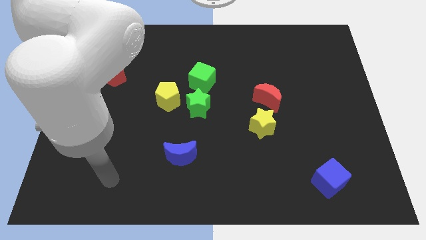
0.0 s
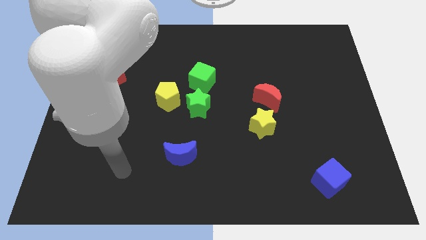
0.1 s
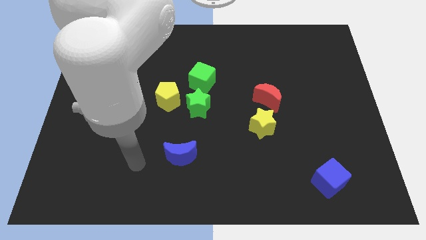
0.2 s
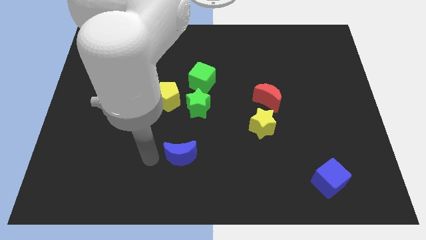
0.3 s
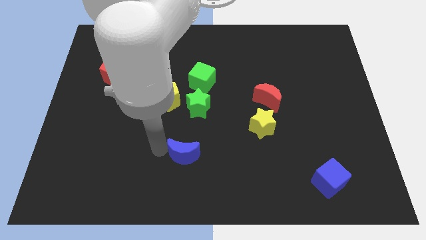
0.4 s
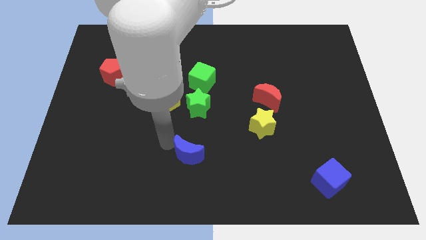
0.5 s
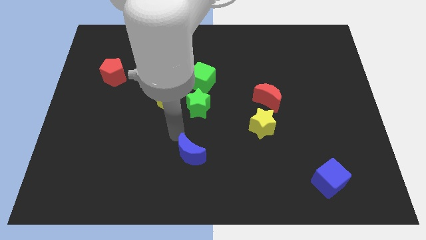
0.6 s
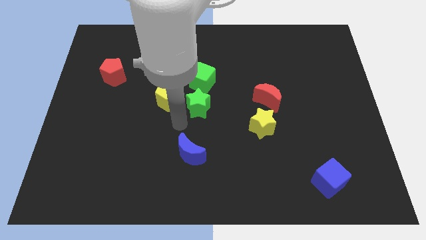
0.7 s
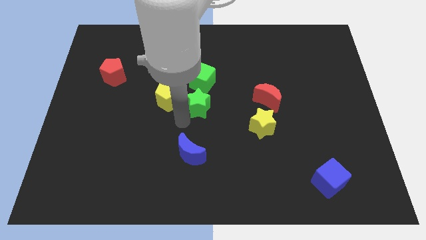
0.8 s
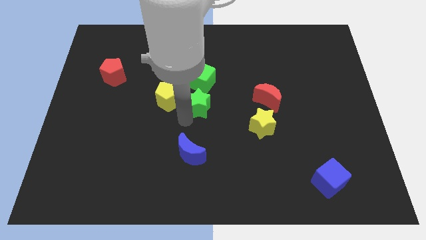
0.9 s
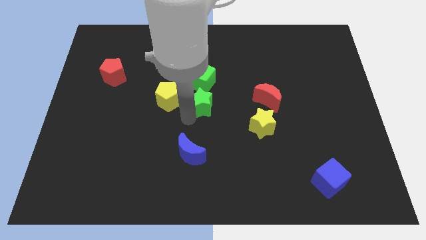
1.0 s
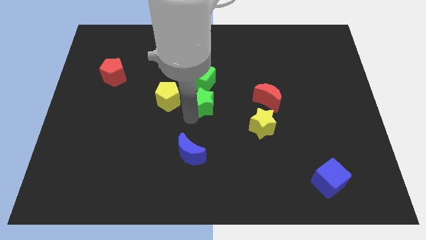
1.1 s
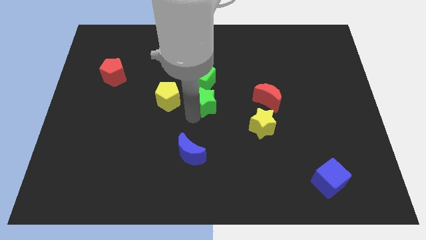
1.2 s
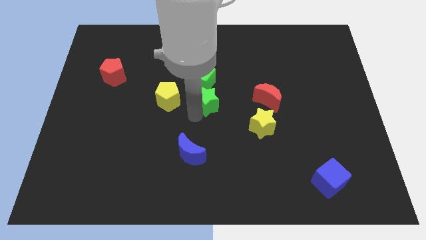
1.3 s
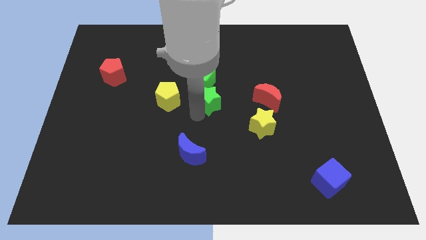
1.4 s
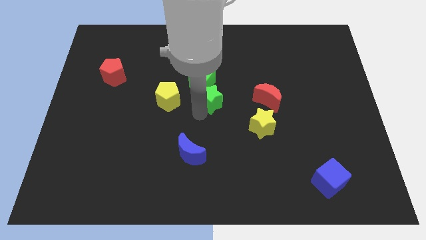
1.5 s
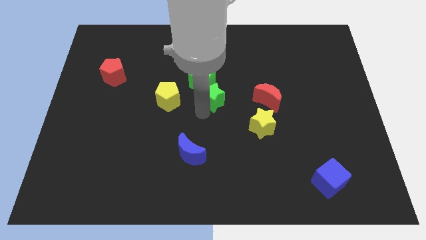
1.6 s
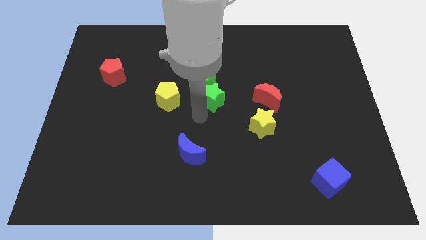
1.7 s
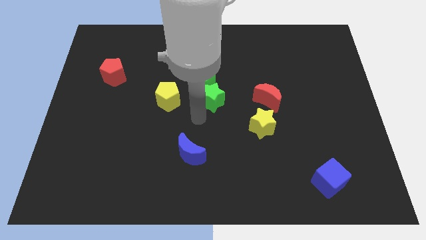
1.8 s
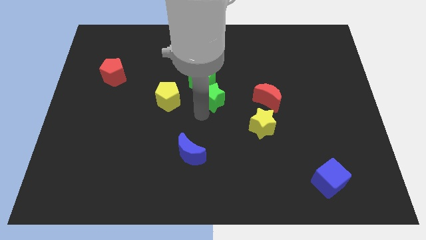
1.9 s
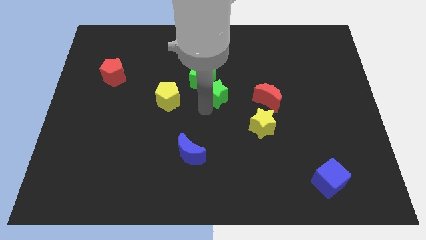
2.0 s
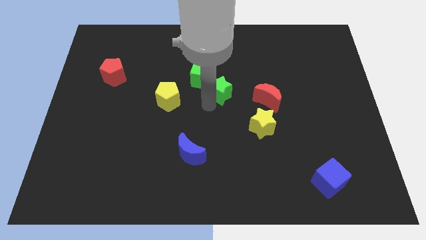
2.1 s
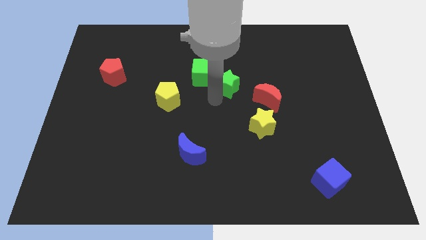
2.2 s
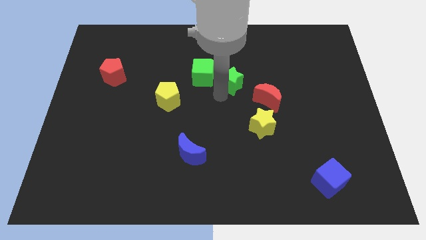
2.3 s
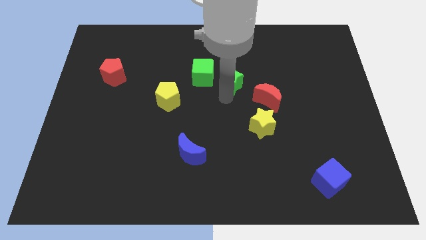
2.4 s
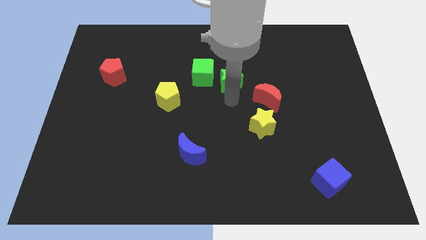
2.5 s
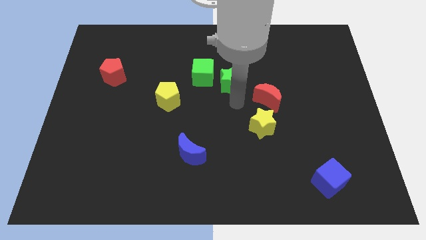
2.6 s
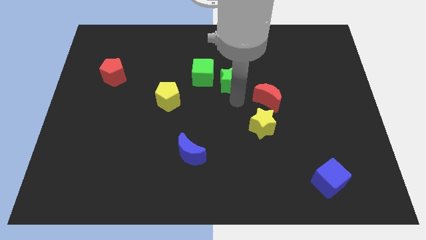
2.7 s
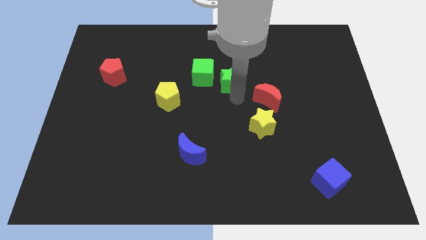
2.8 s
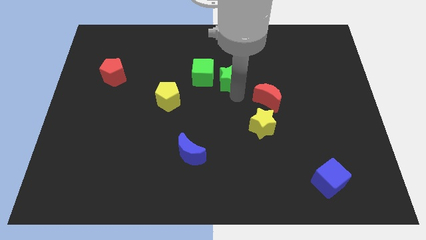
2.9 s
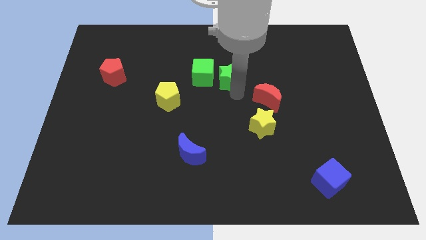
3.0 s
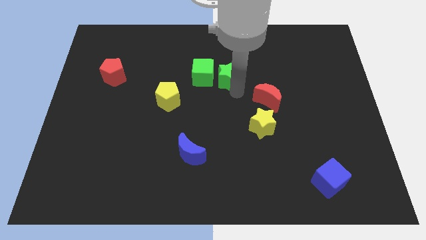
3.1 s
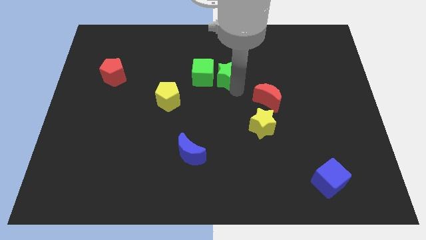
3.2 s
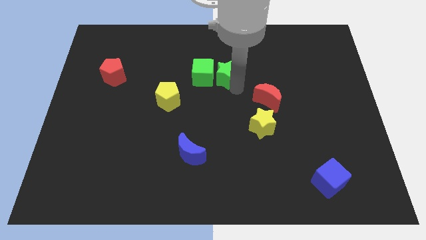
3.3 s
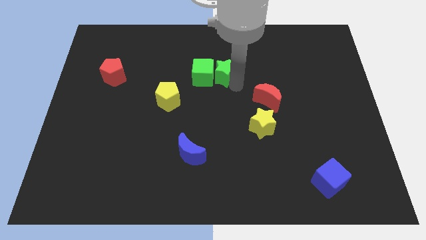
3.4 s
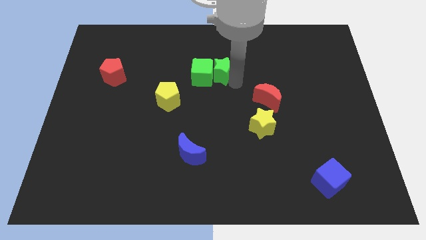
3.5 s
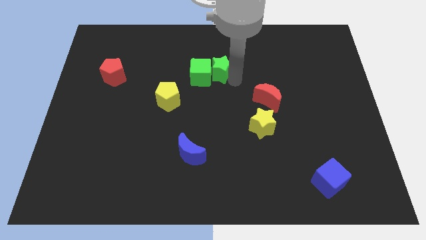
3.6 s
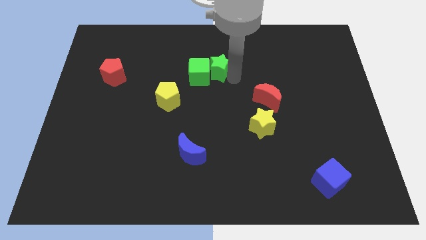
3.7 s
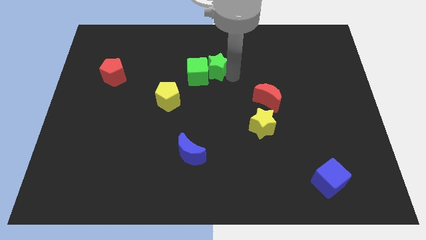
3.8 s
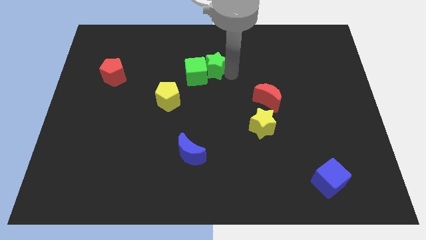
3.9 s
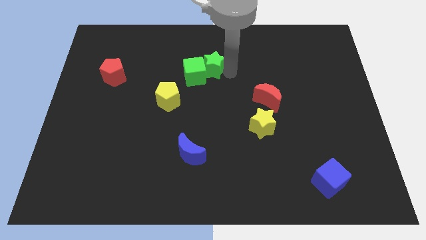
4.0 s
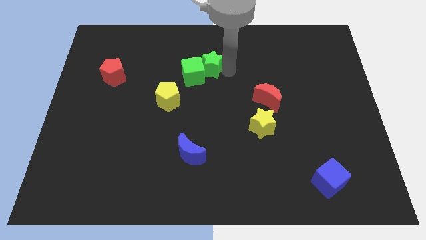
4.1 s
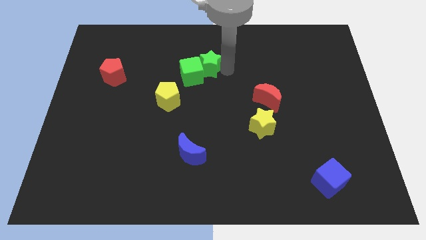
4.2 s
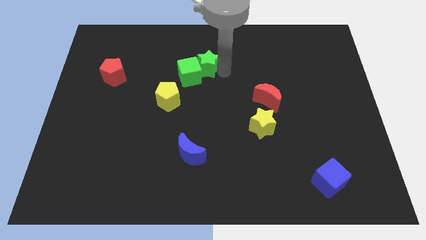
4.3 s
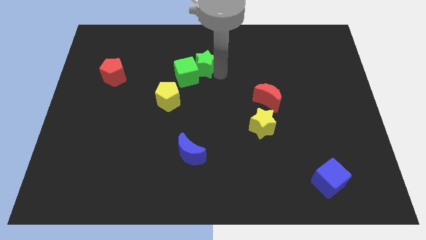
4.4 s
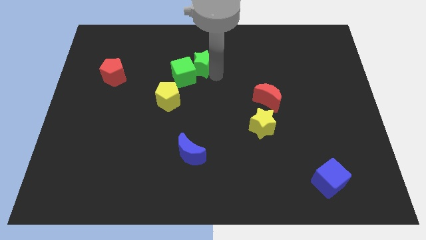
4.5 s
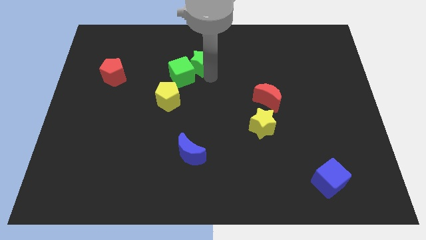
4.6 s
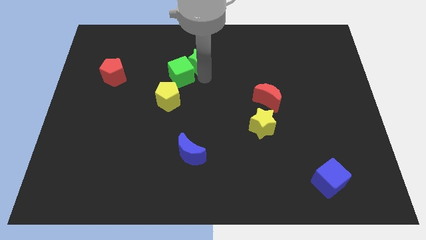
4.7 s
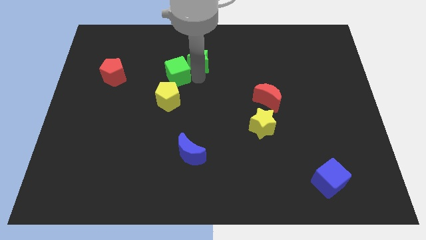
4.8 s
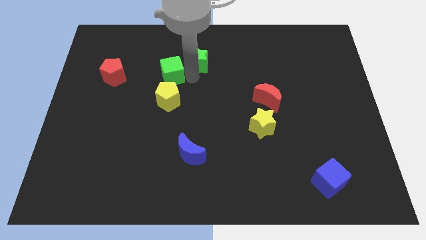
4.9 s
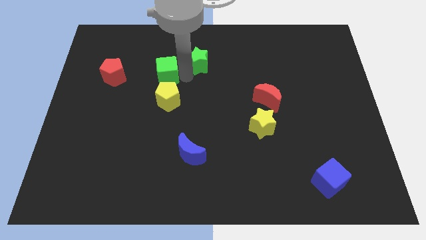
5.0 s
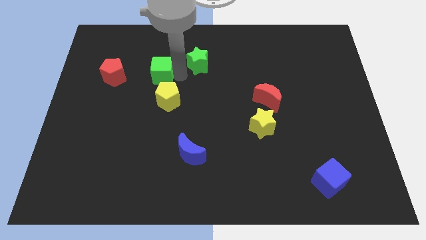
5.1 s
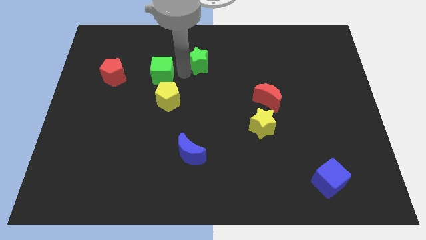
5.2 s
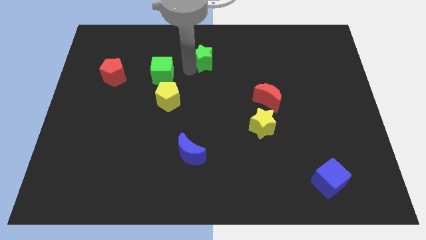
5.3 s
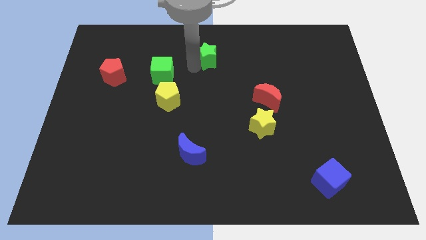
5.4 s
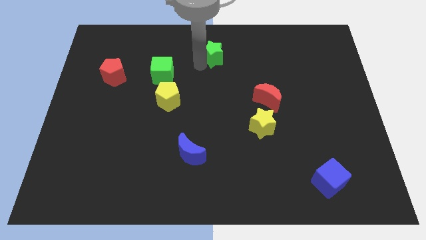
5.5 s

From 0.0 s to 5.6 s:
put the green star to the towards your base
